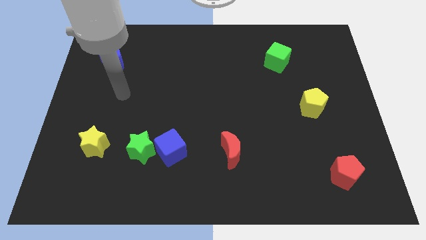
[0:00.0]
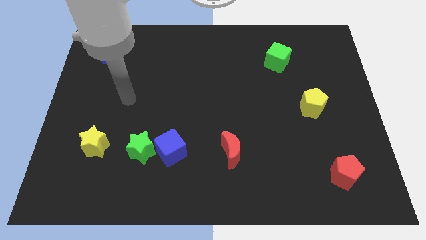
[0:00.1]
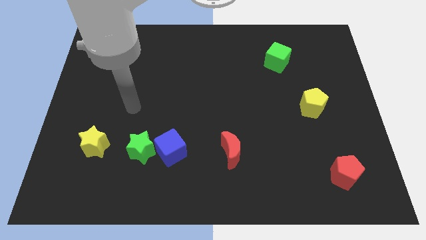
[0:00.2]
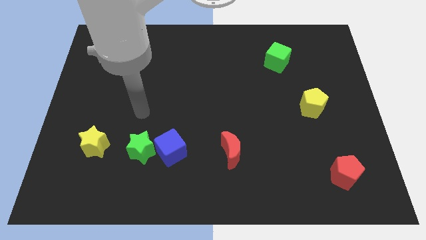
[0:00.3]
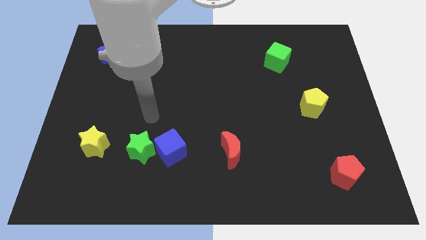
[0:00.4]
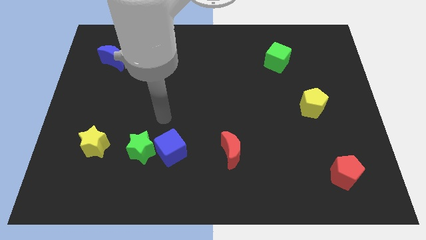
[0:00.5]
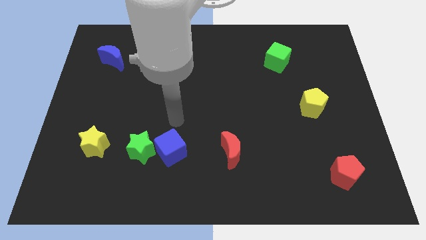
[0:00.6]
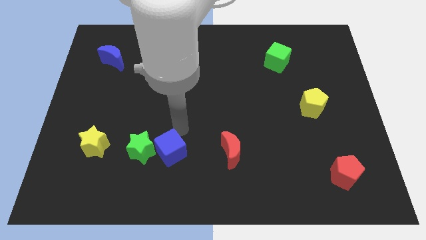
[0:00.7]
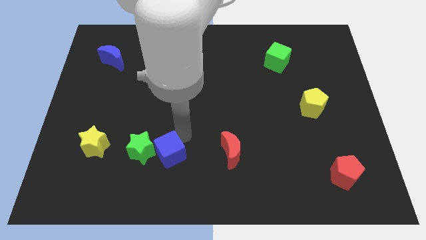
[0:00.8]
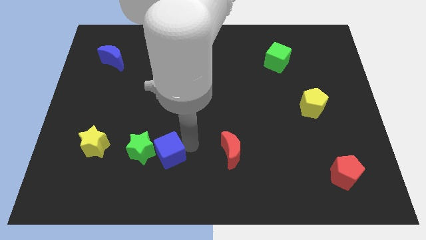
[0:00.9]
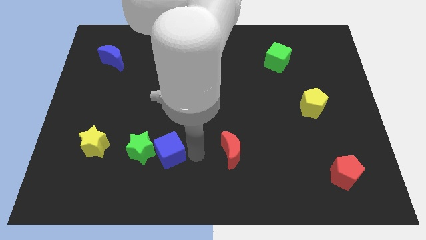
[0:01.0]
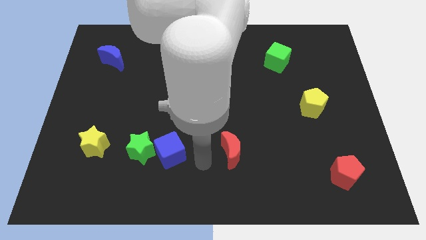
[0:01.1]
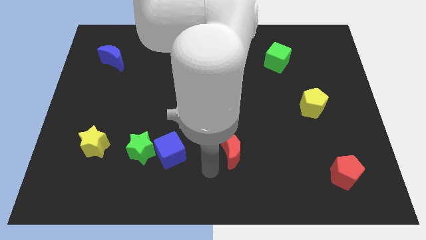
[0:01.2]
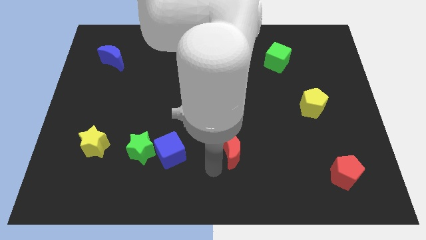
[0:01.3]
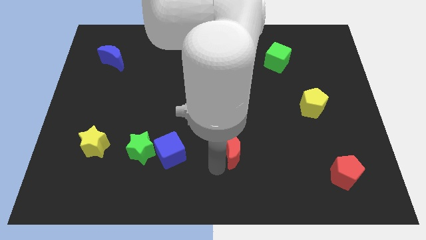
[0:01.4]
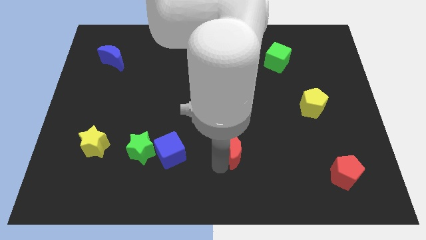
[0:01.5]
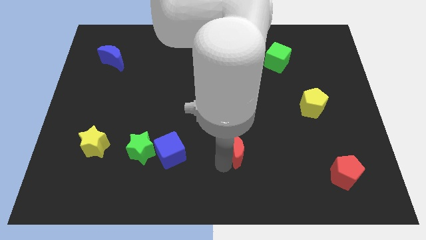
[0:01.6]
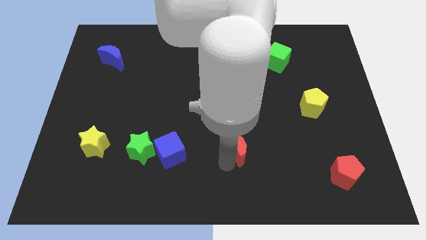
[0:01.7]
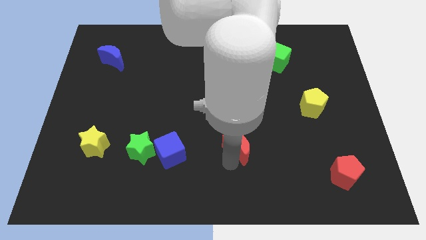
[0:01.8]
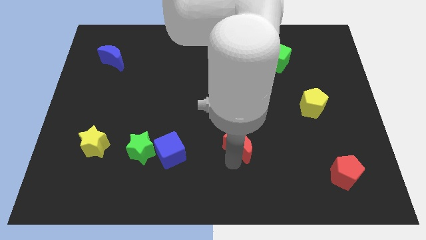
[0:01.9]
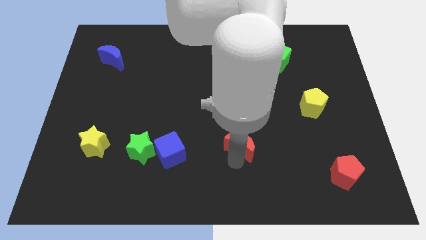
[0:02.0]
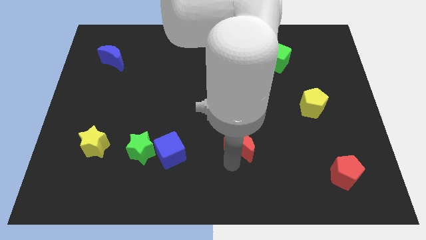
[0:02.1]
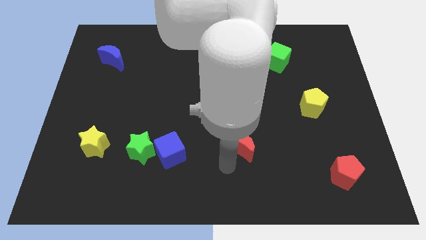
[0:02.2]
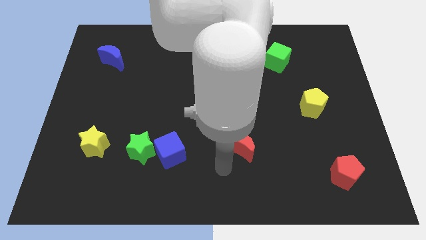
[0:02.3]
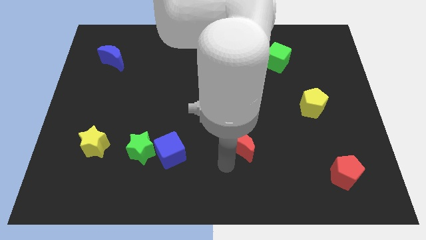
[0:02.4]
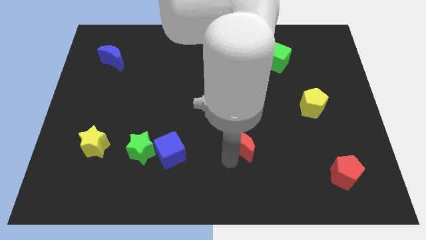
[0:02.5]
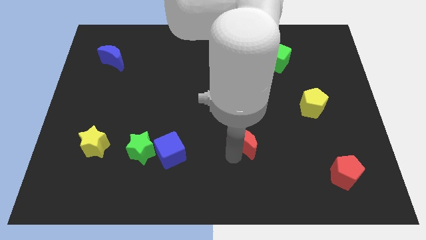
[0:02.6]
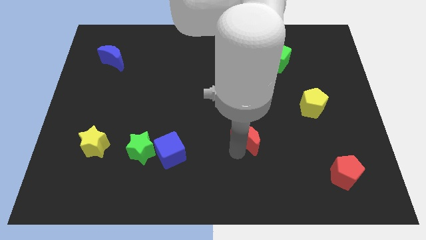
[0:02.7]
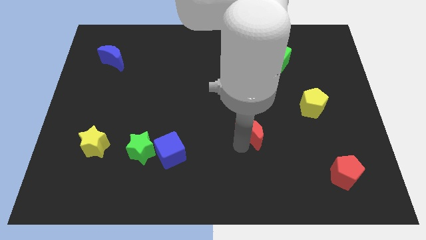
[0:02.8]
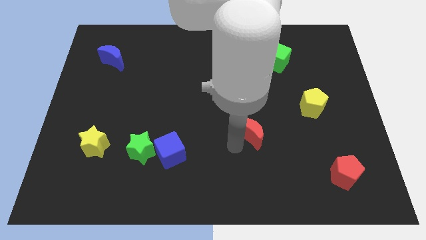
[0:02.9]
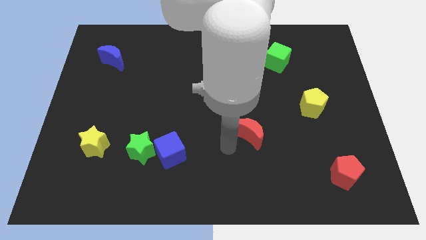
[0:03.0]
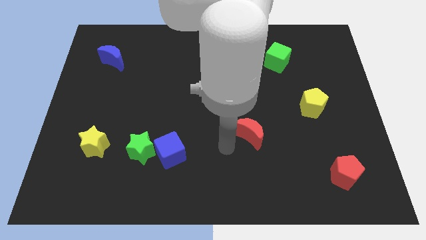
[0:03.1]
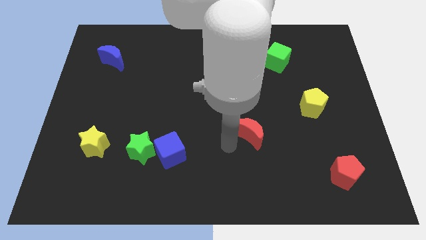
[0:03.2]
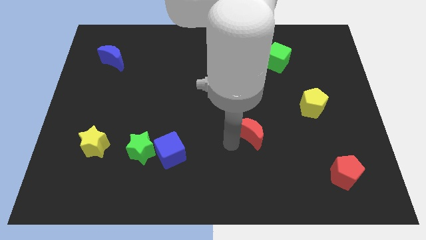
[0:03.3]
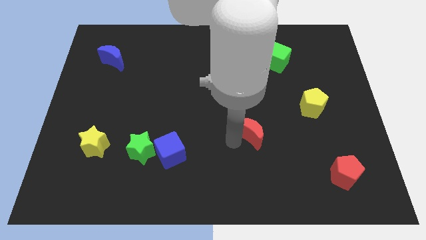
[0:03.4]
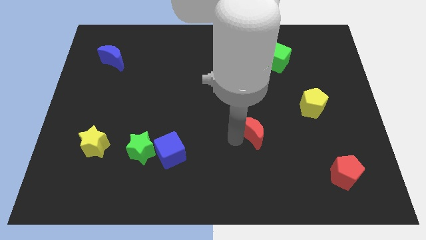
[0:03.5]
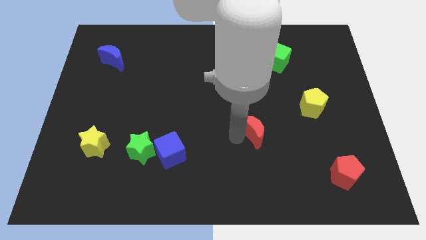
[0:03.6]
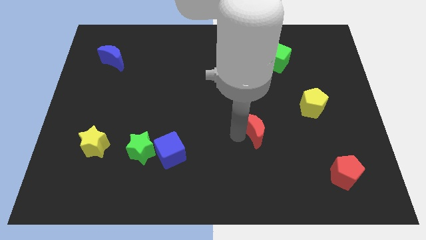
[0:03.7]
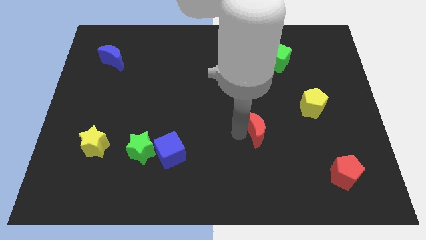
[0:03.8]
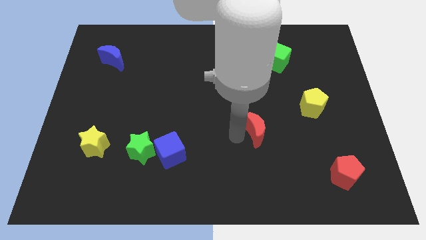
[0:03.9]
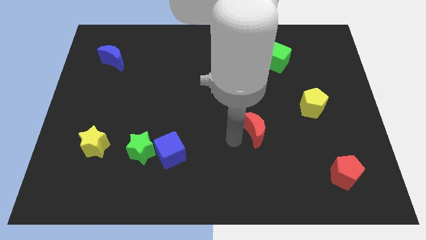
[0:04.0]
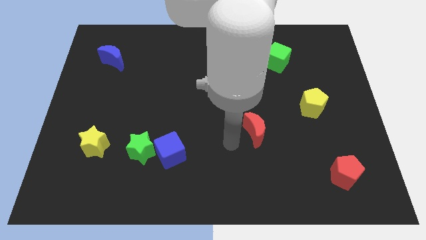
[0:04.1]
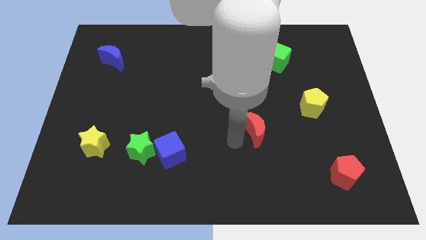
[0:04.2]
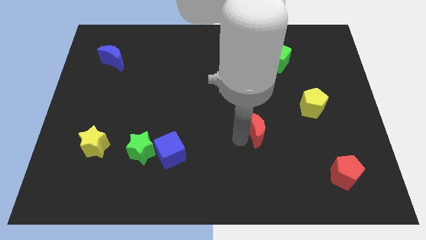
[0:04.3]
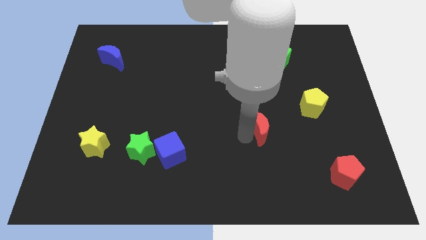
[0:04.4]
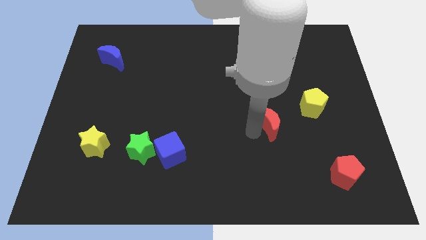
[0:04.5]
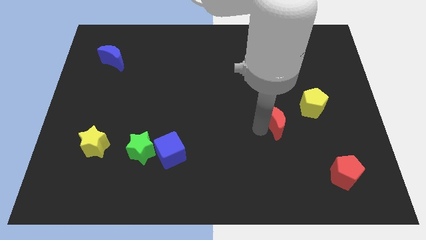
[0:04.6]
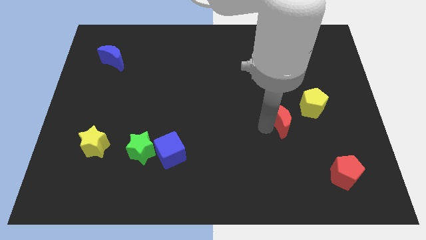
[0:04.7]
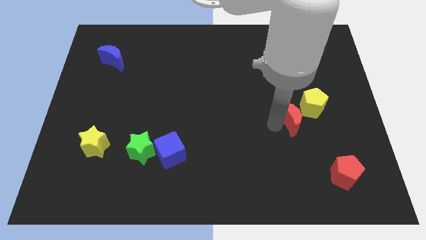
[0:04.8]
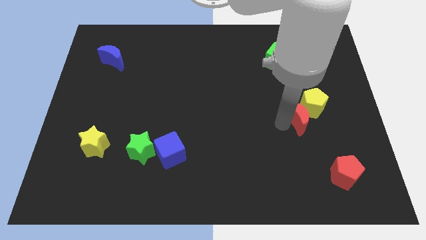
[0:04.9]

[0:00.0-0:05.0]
move the red moon next to the yellow pentagon
